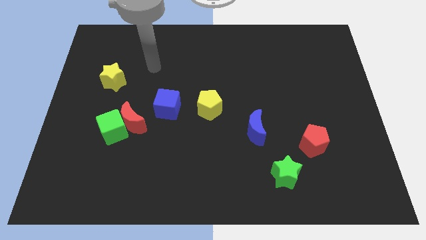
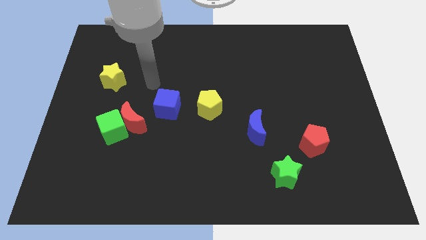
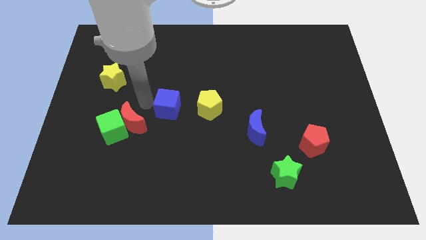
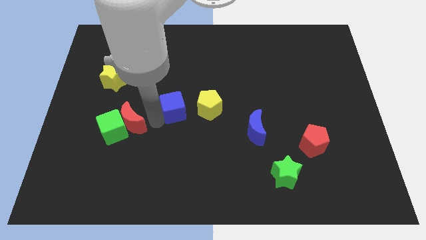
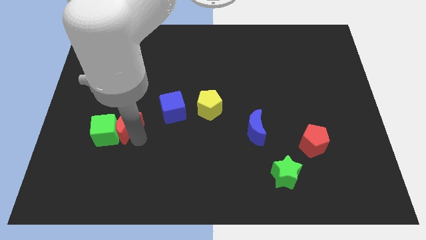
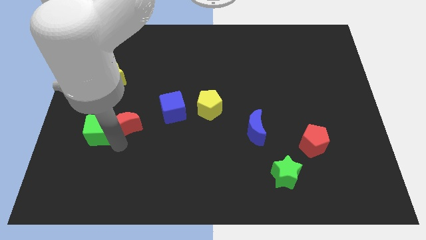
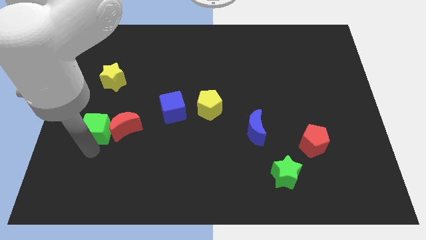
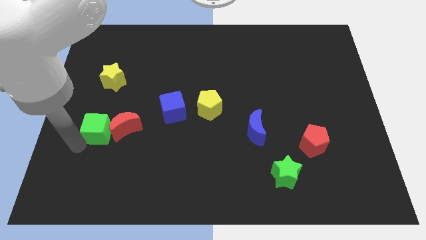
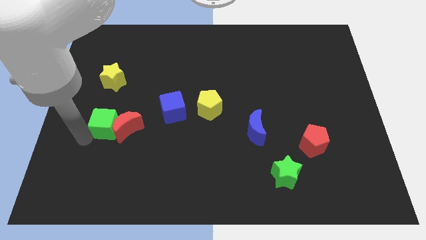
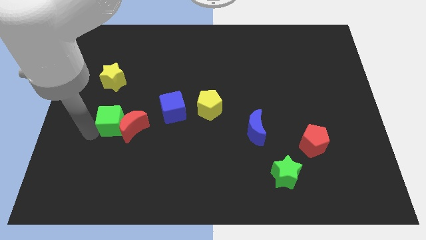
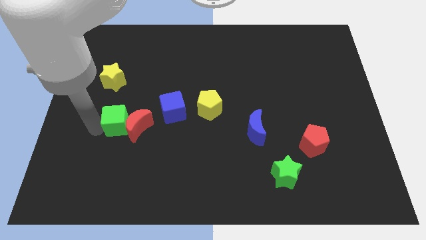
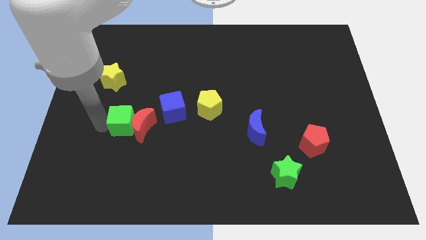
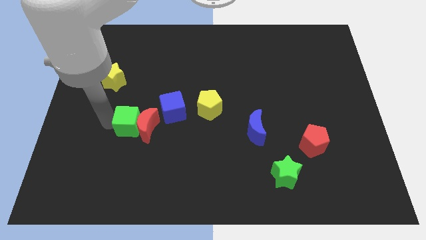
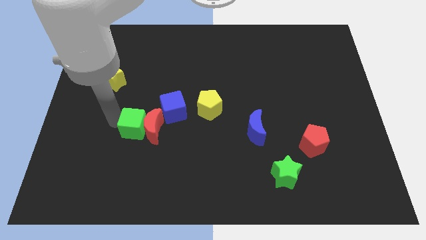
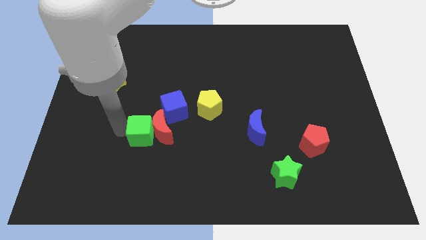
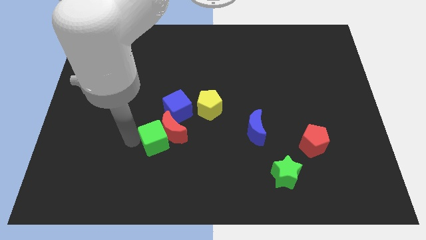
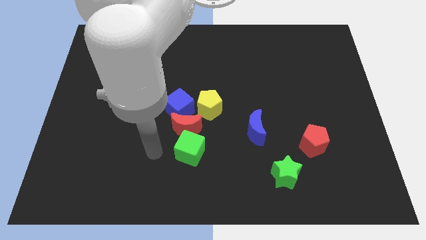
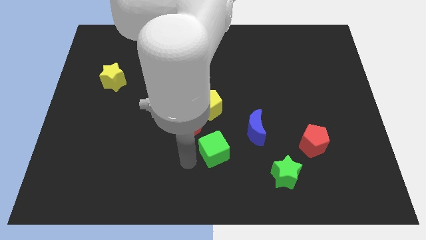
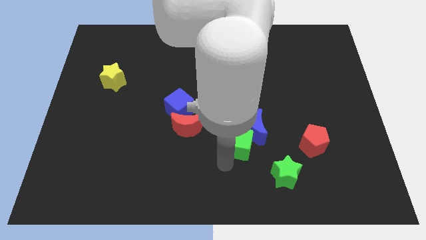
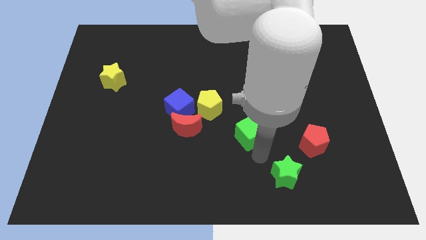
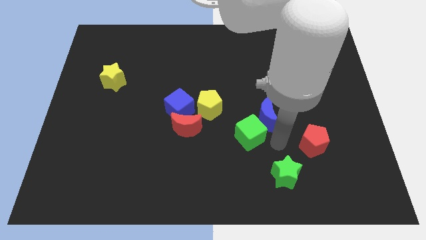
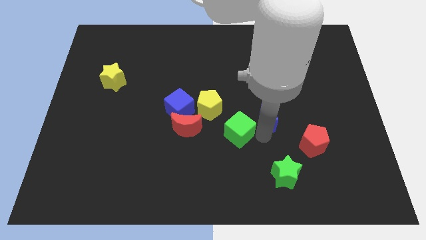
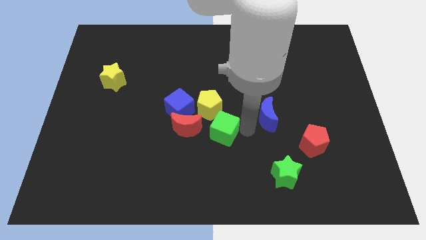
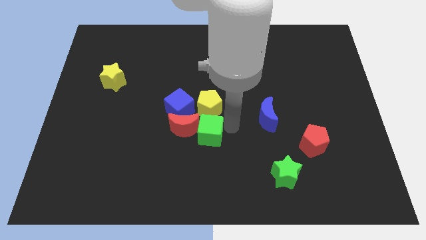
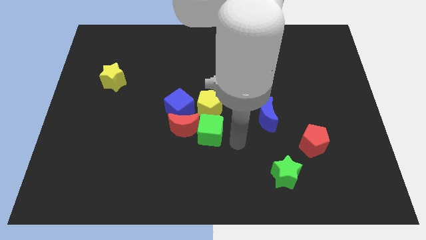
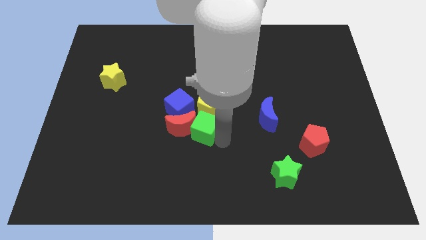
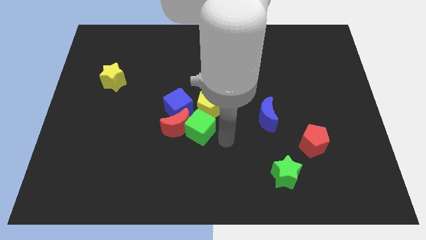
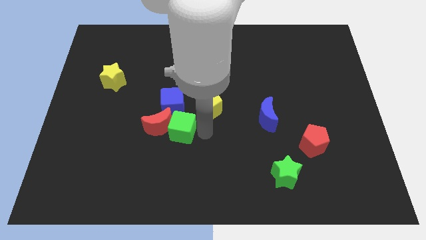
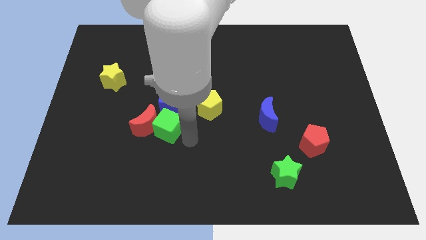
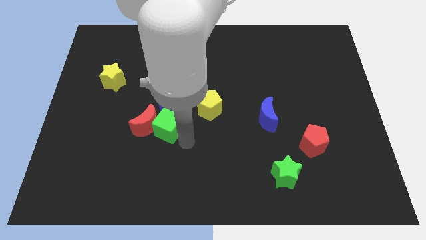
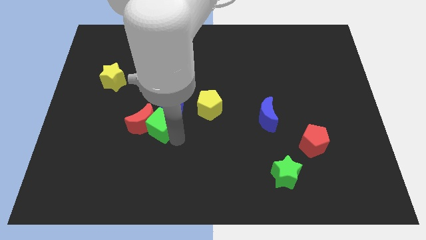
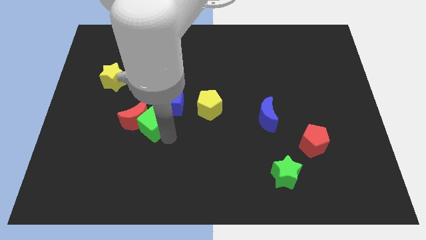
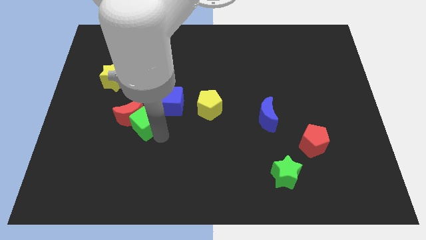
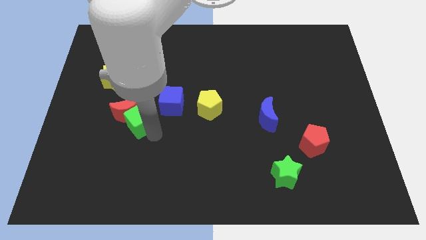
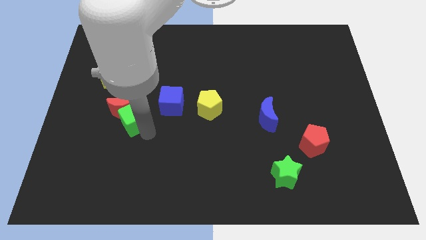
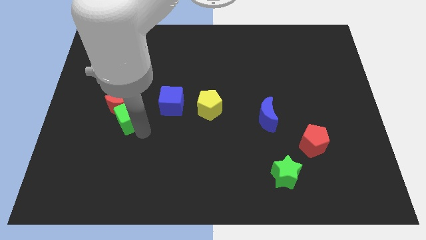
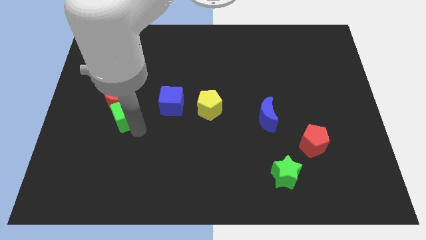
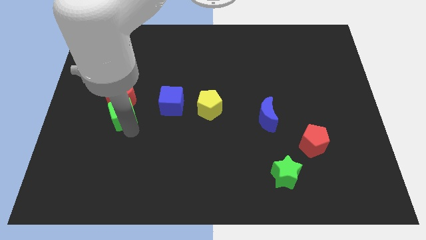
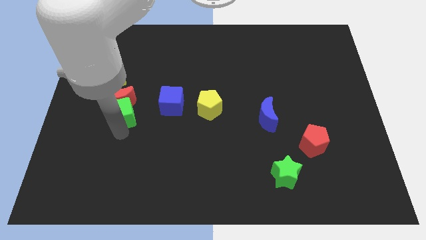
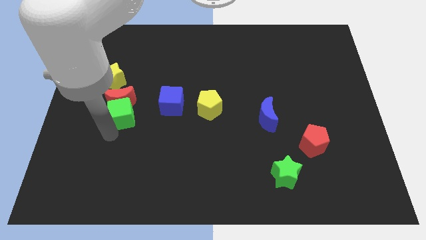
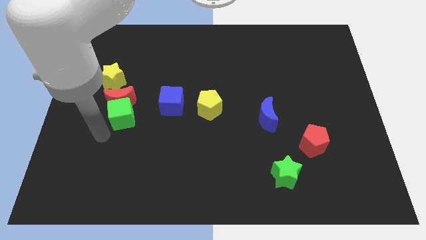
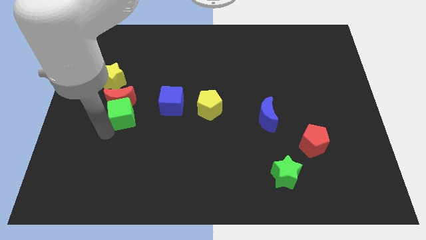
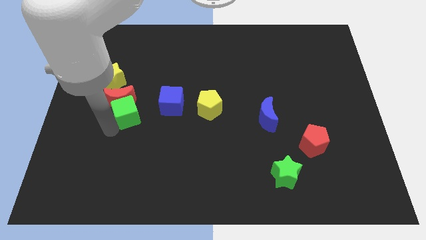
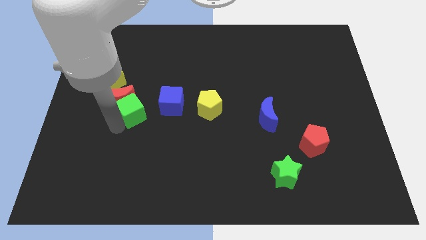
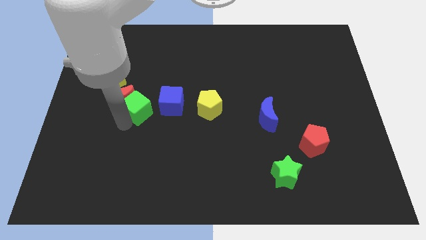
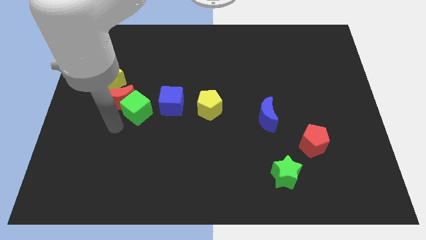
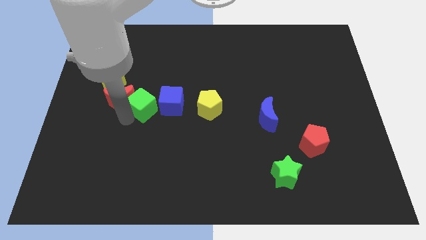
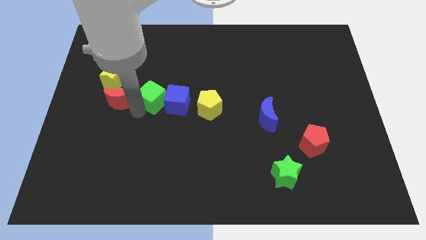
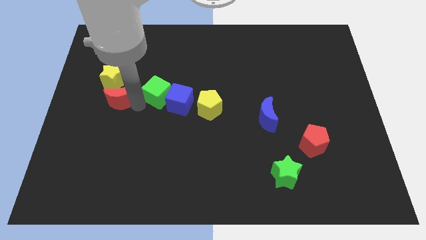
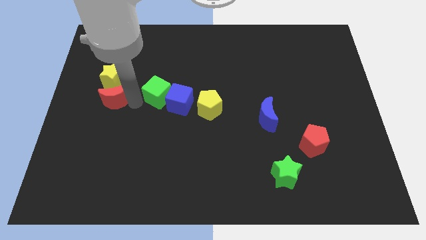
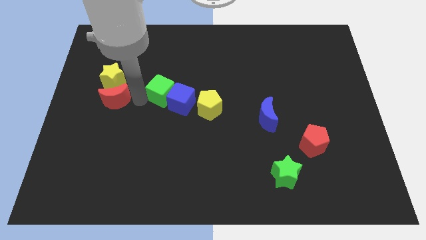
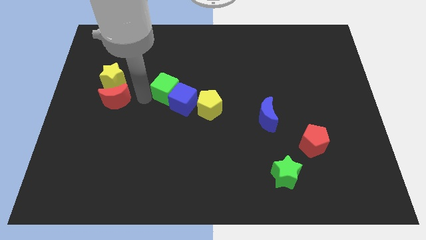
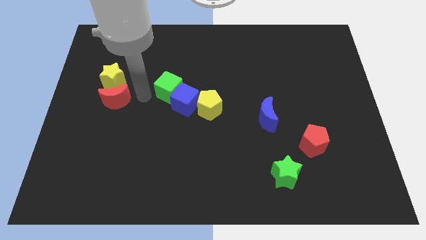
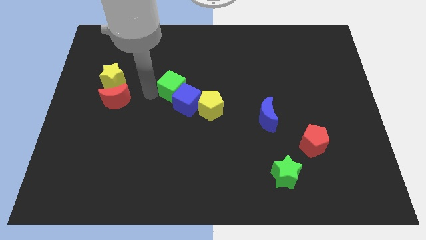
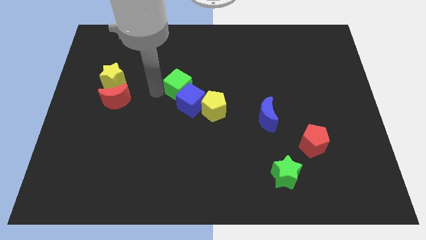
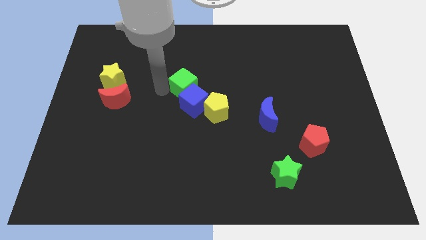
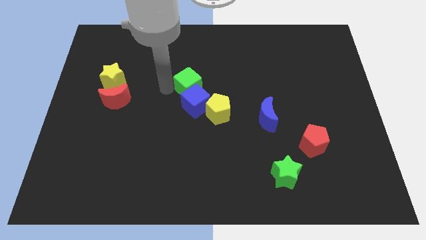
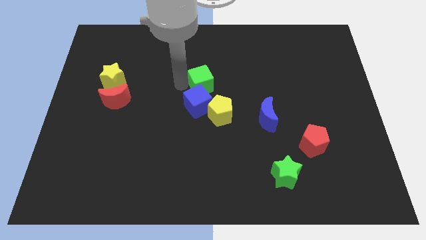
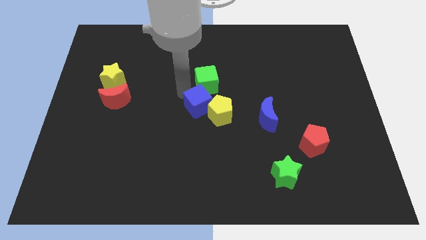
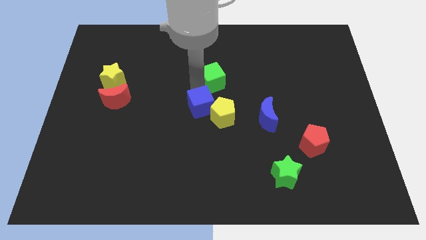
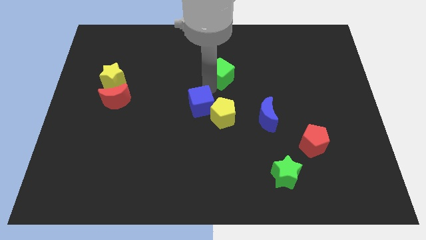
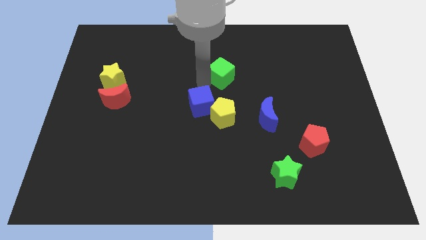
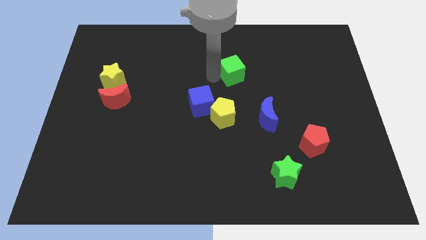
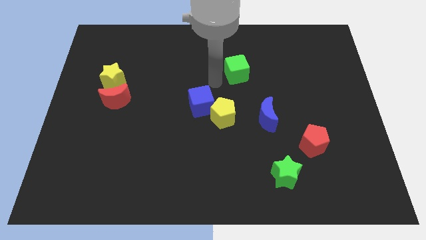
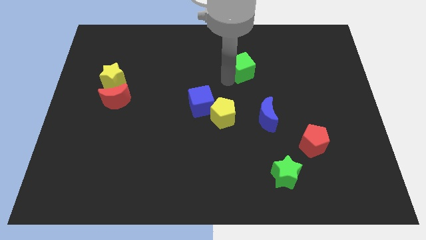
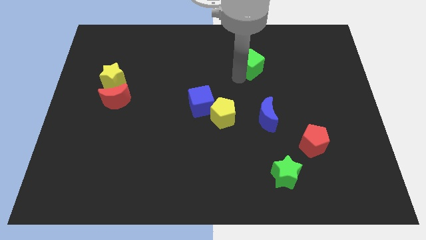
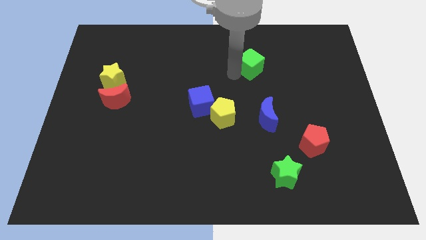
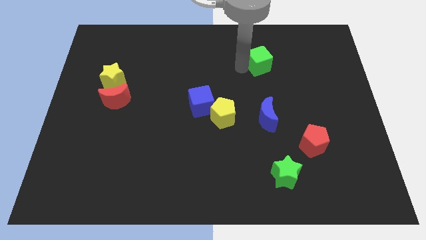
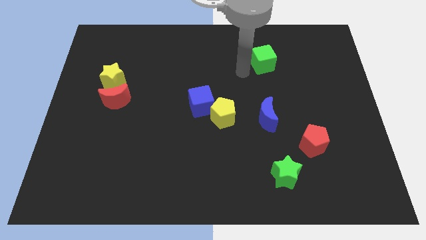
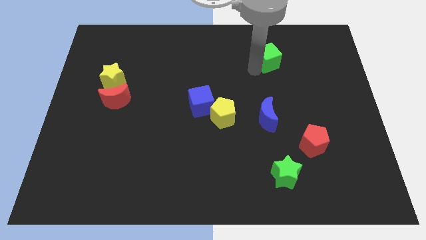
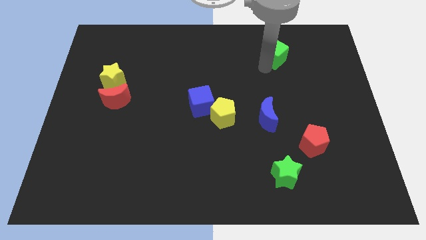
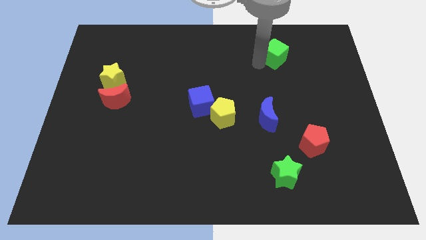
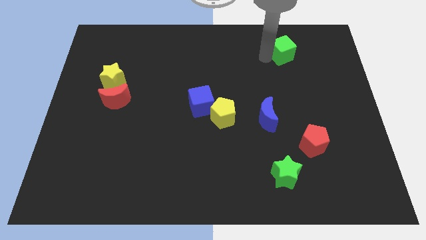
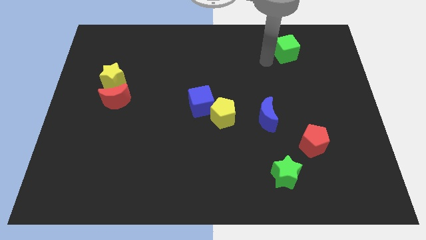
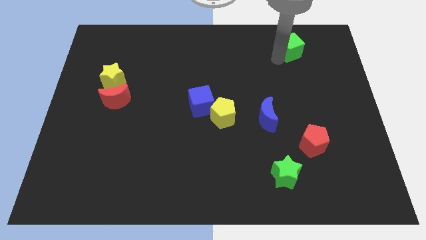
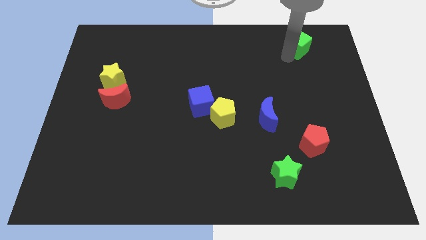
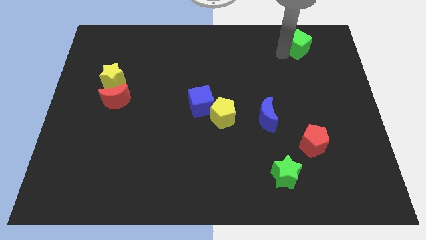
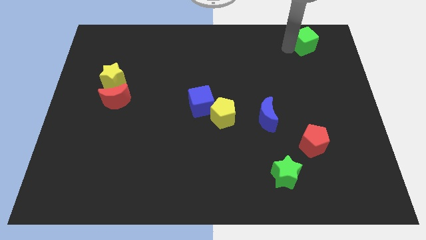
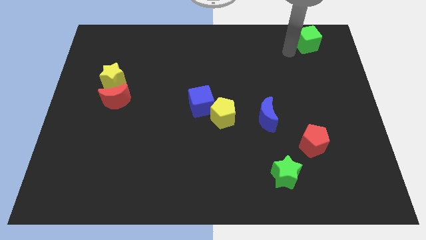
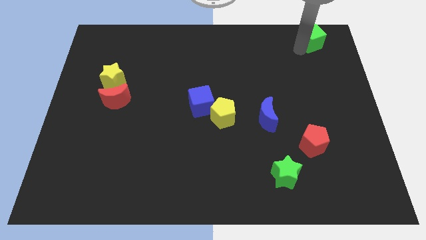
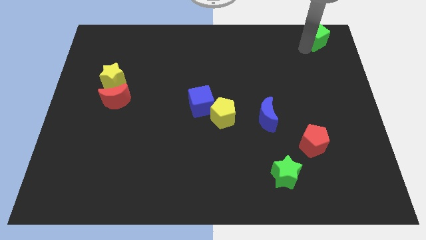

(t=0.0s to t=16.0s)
move the green cube to the upper right corner
